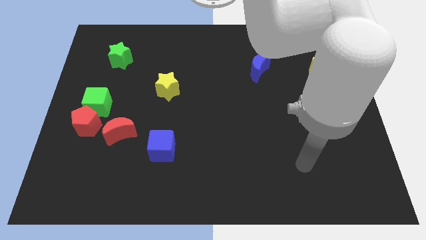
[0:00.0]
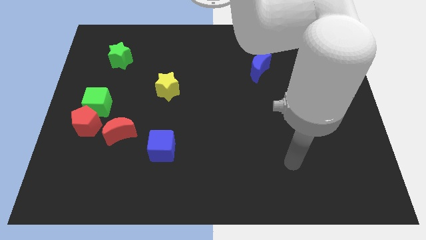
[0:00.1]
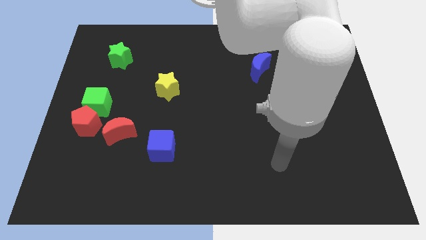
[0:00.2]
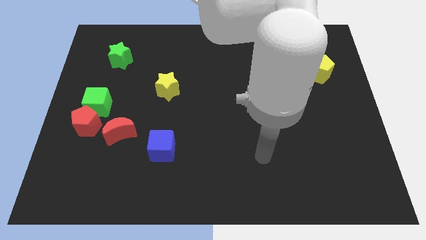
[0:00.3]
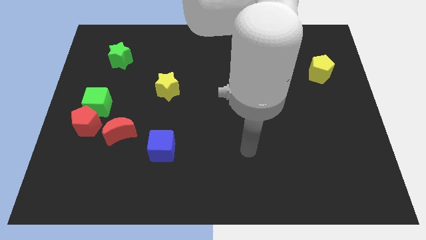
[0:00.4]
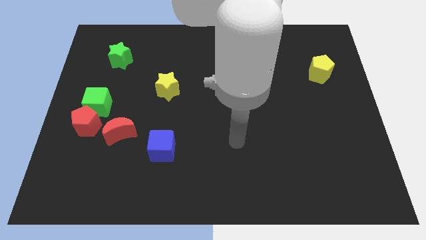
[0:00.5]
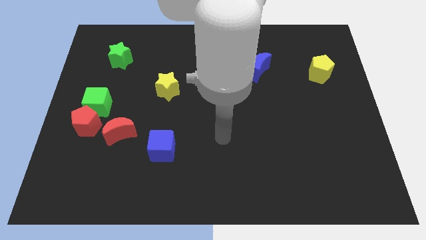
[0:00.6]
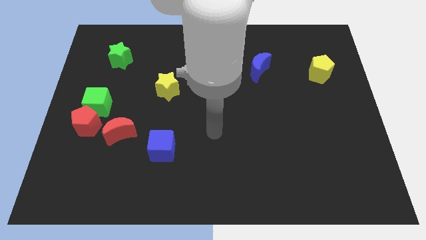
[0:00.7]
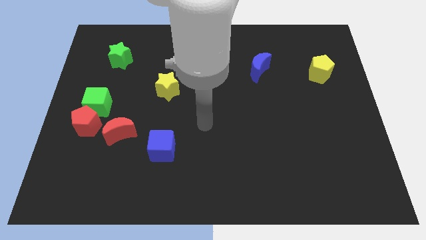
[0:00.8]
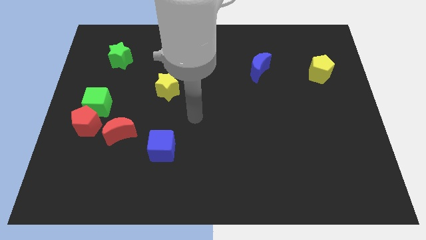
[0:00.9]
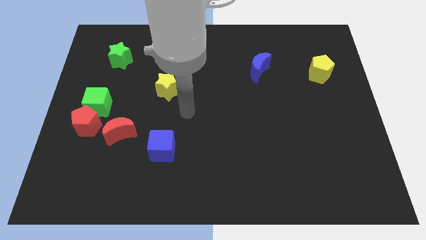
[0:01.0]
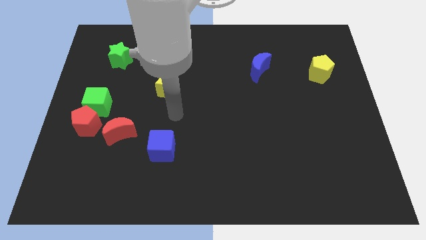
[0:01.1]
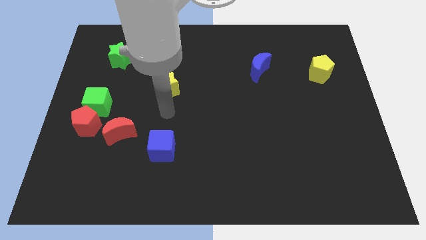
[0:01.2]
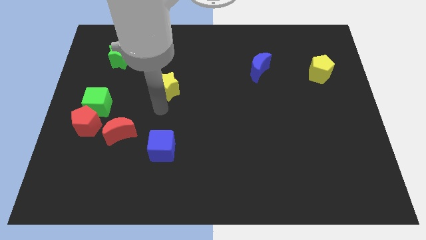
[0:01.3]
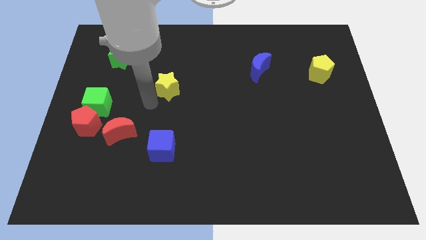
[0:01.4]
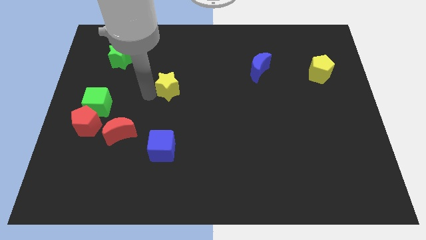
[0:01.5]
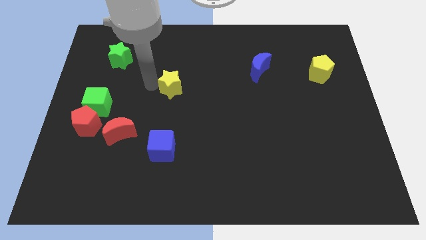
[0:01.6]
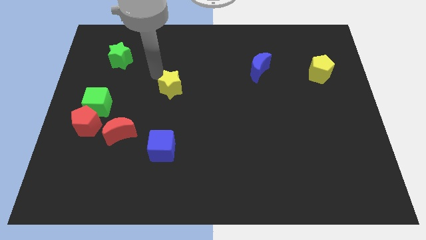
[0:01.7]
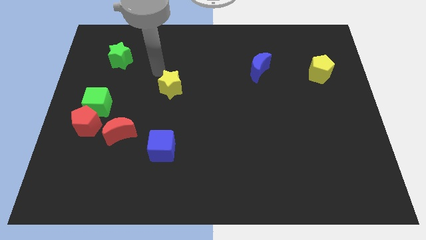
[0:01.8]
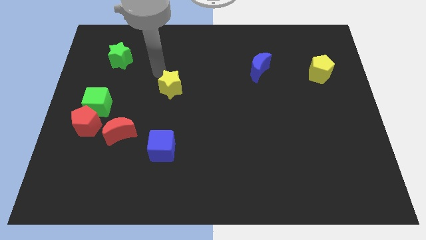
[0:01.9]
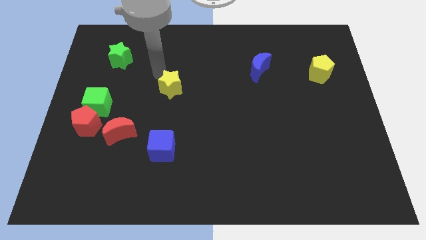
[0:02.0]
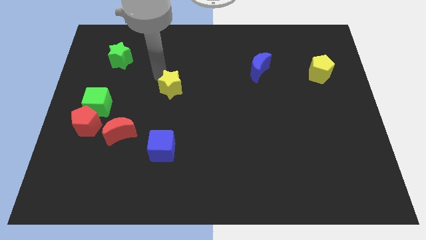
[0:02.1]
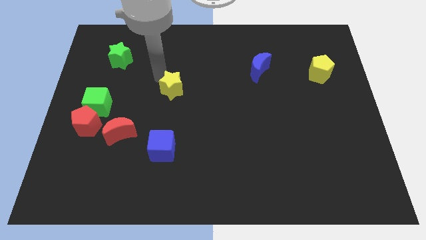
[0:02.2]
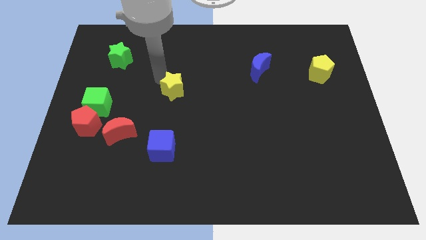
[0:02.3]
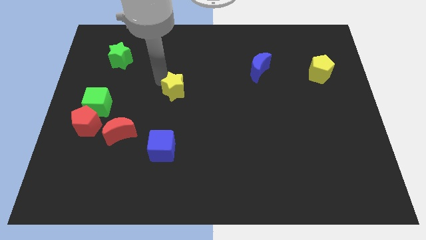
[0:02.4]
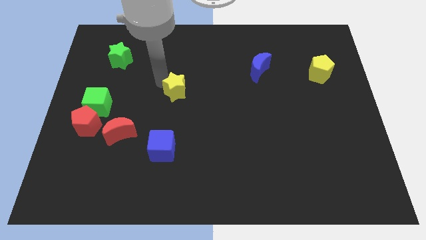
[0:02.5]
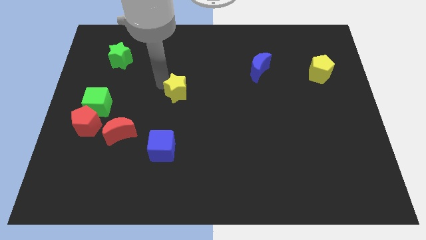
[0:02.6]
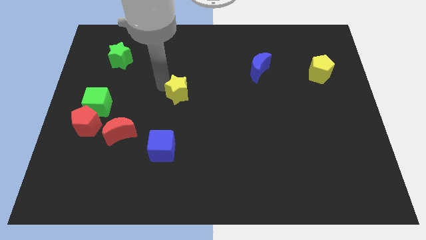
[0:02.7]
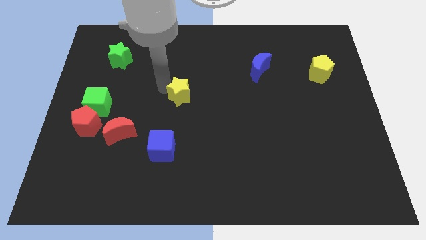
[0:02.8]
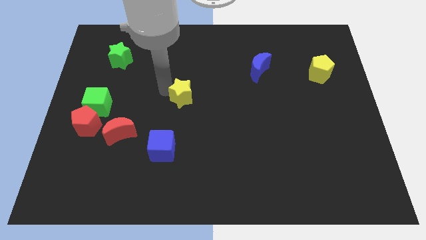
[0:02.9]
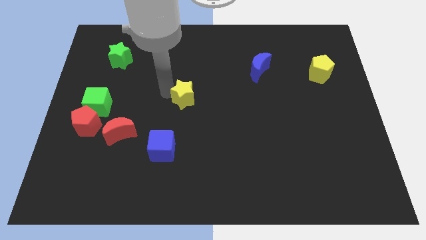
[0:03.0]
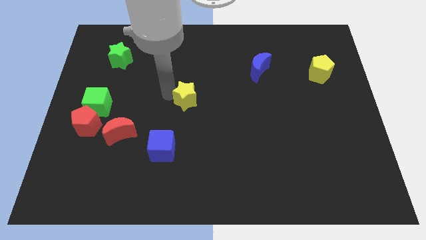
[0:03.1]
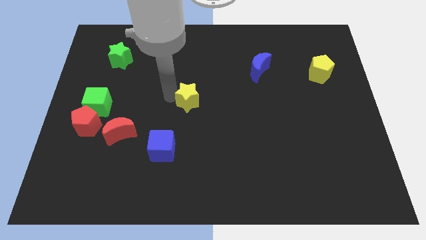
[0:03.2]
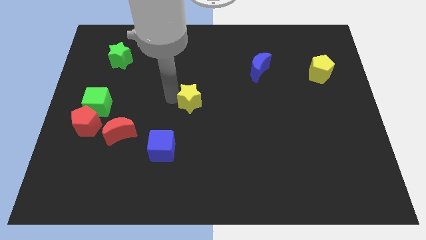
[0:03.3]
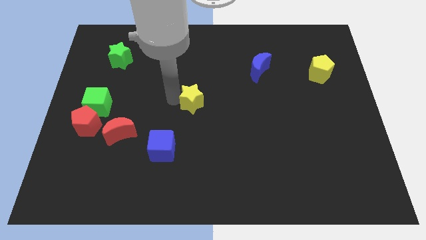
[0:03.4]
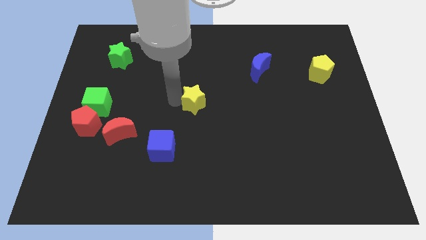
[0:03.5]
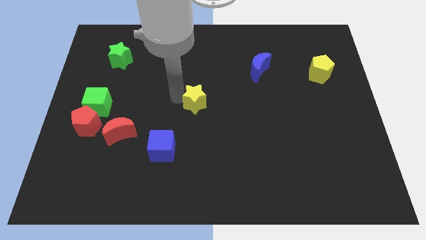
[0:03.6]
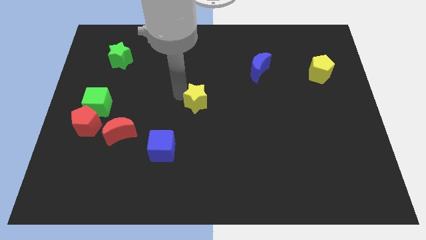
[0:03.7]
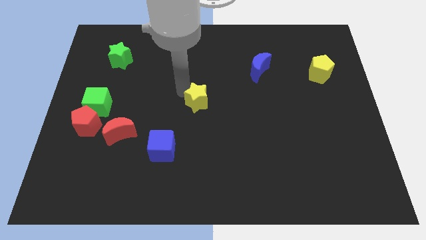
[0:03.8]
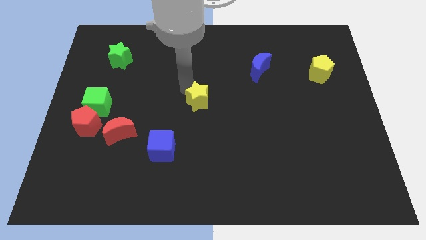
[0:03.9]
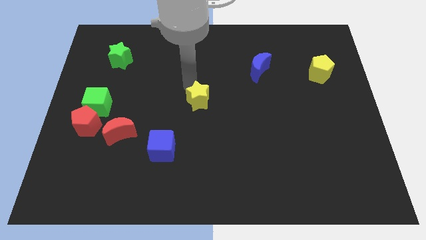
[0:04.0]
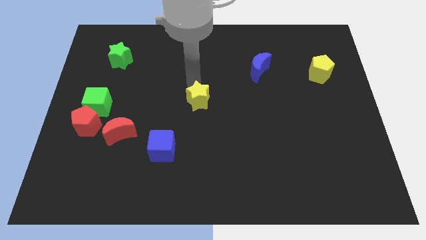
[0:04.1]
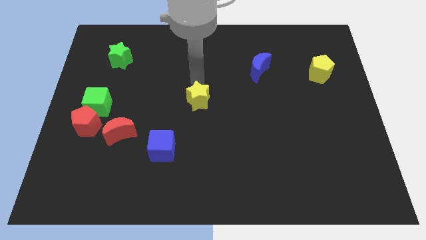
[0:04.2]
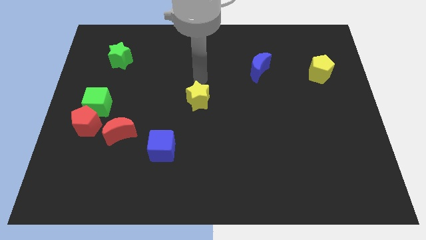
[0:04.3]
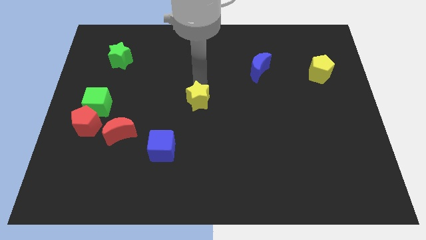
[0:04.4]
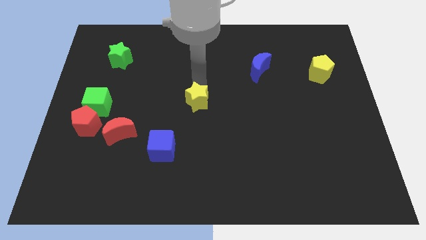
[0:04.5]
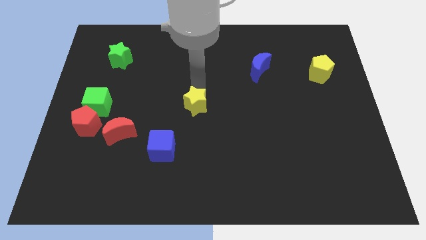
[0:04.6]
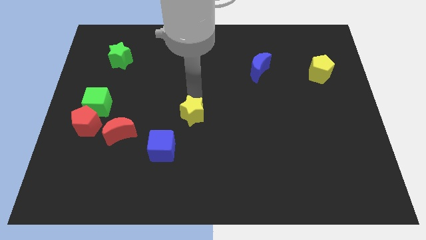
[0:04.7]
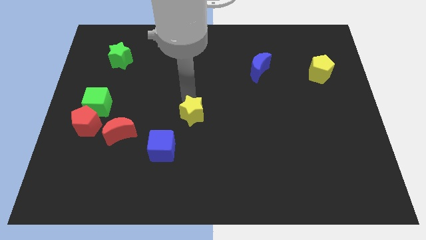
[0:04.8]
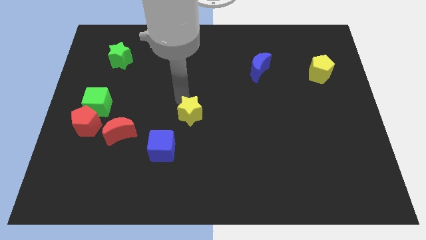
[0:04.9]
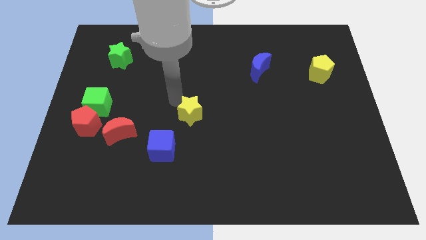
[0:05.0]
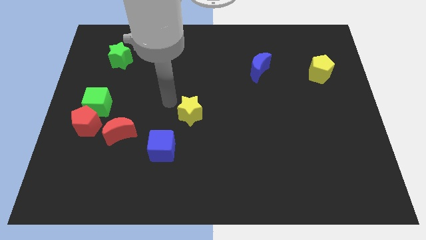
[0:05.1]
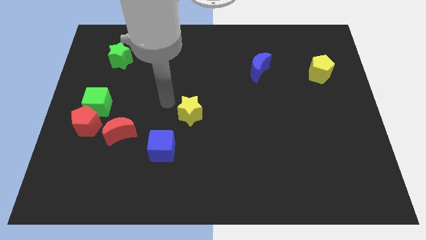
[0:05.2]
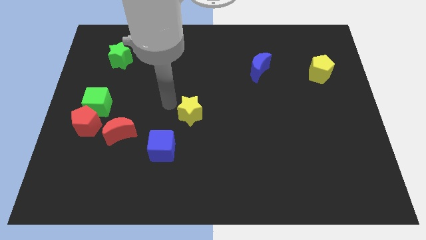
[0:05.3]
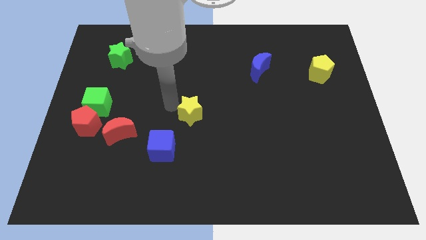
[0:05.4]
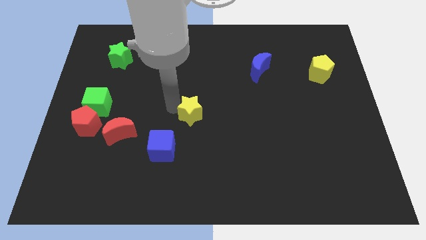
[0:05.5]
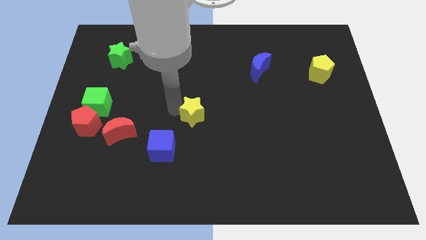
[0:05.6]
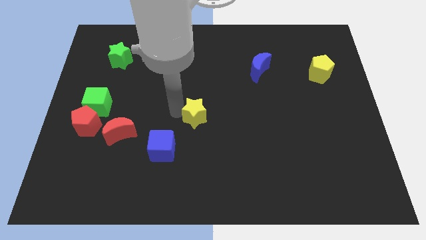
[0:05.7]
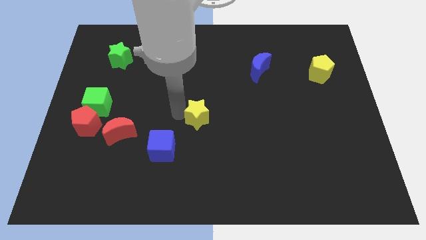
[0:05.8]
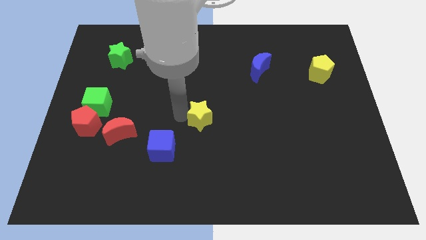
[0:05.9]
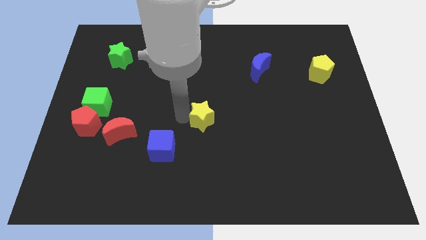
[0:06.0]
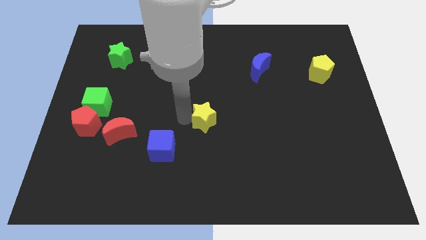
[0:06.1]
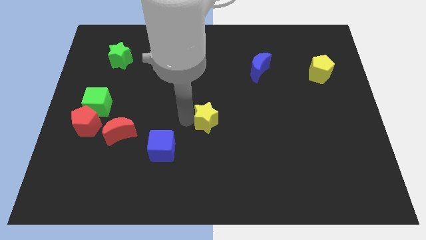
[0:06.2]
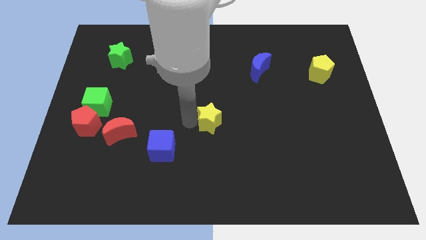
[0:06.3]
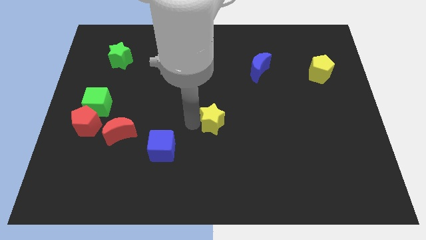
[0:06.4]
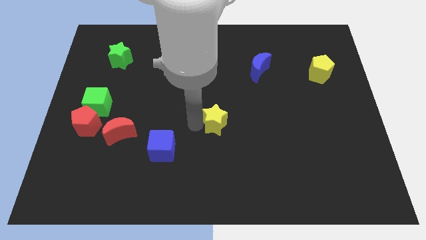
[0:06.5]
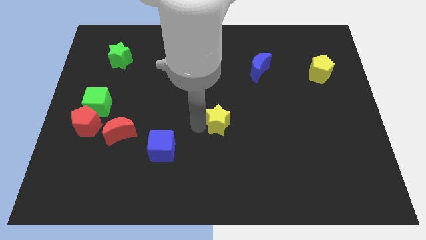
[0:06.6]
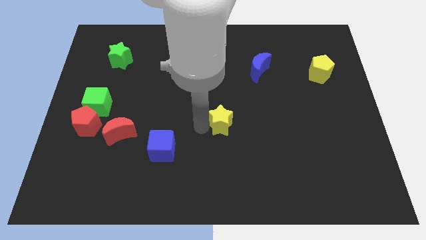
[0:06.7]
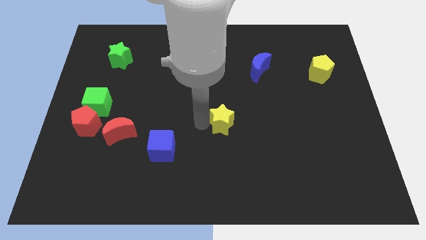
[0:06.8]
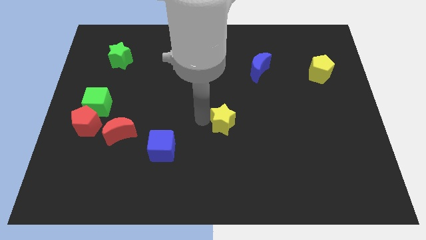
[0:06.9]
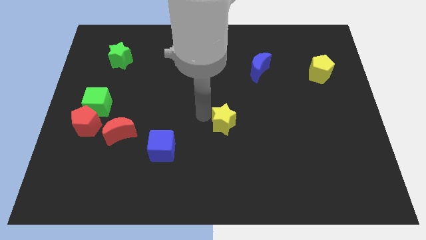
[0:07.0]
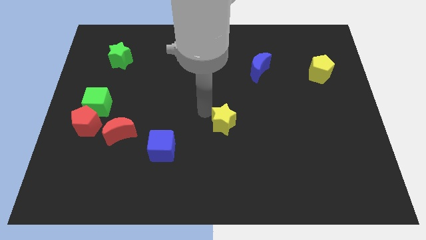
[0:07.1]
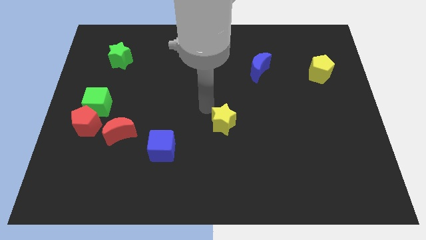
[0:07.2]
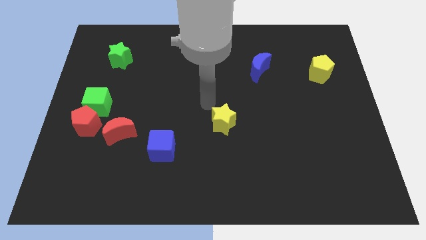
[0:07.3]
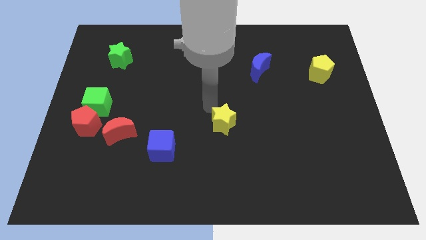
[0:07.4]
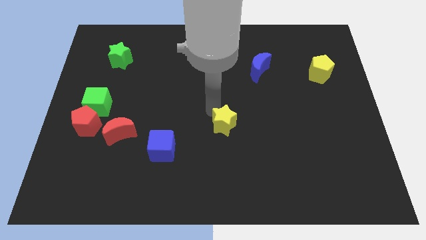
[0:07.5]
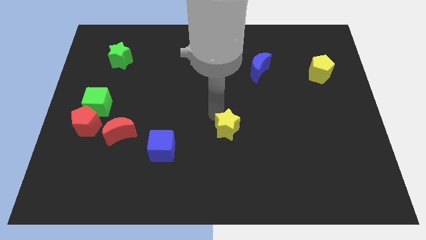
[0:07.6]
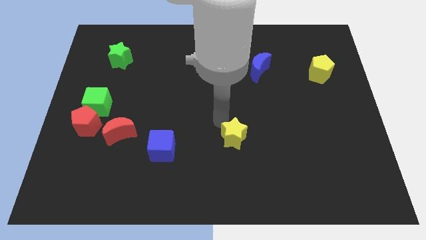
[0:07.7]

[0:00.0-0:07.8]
move the yellow star downwards and then right

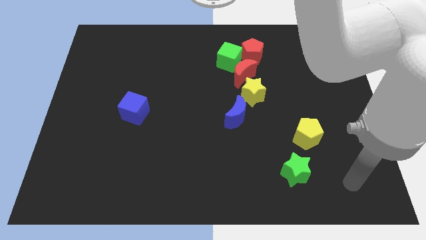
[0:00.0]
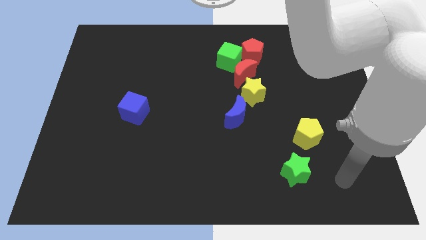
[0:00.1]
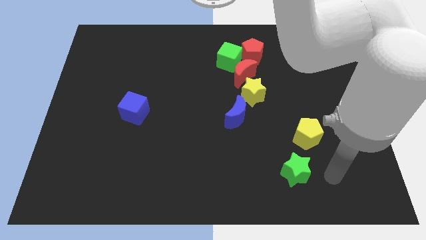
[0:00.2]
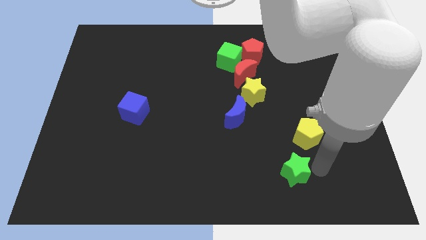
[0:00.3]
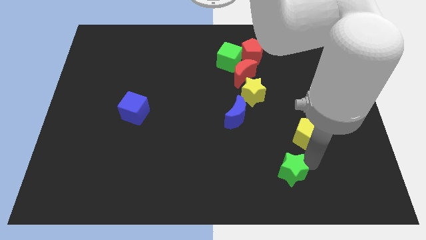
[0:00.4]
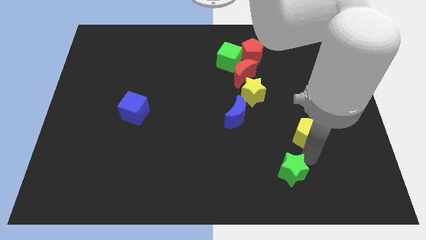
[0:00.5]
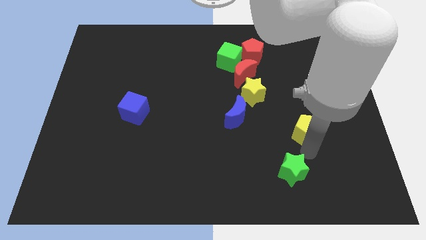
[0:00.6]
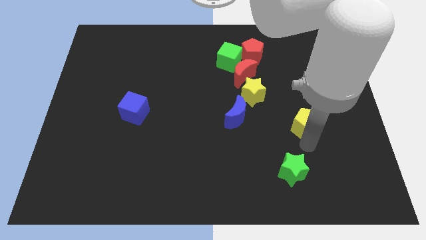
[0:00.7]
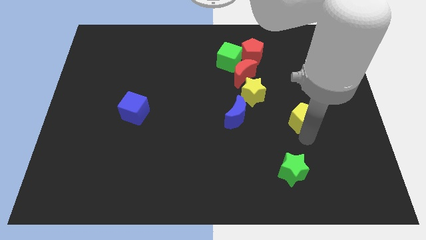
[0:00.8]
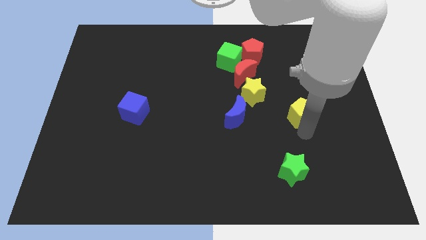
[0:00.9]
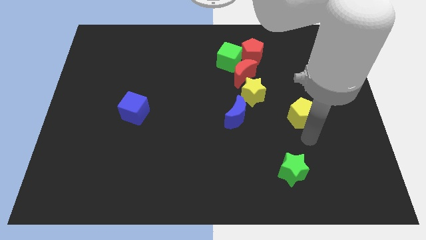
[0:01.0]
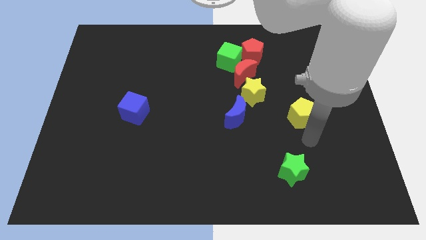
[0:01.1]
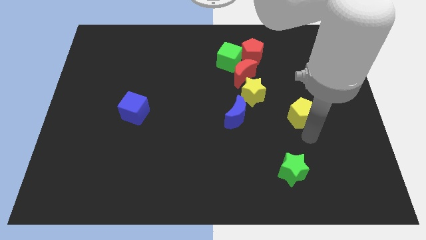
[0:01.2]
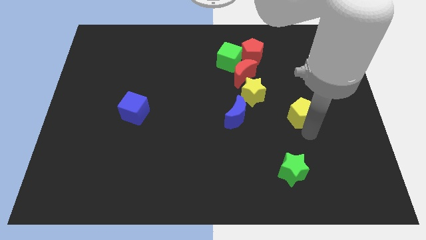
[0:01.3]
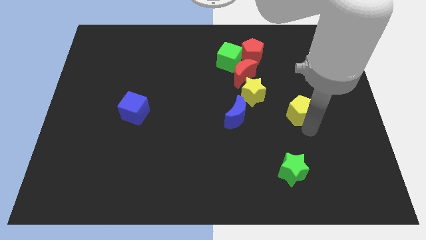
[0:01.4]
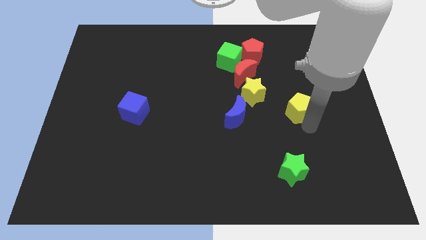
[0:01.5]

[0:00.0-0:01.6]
slide the yellow pentagon slightly up
